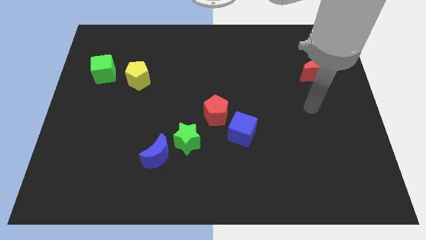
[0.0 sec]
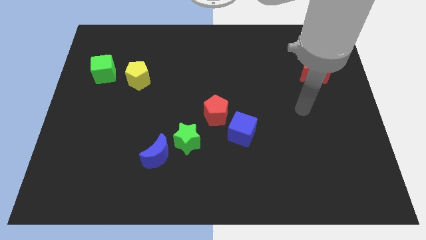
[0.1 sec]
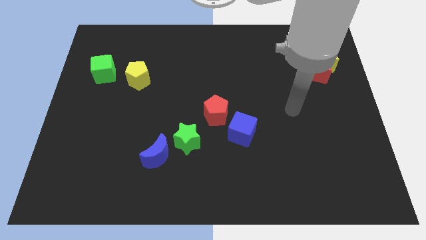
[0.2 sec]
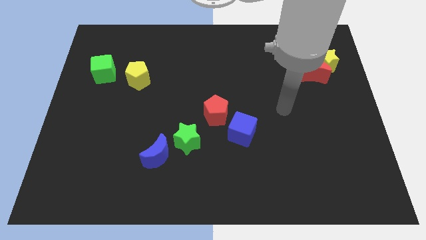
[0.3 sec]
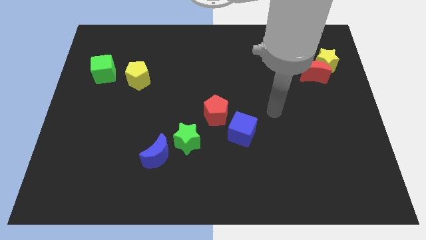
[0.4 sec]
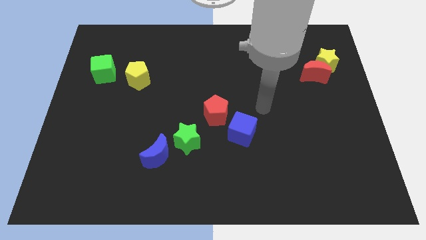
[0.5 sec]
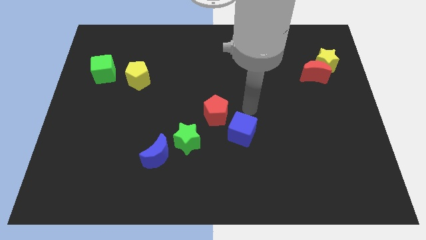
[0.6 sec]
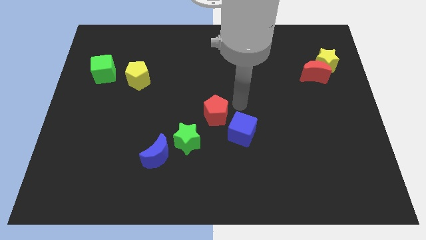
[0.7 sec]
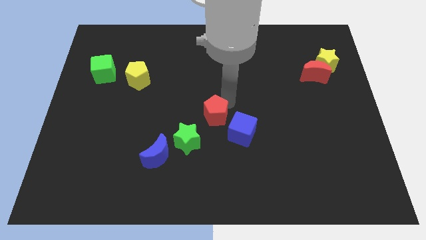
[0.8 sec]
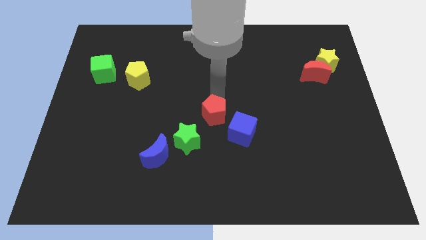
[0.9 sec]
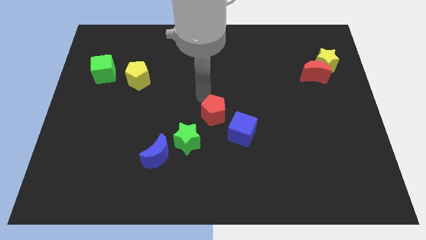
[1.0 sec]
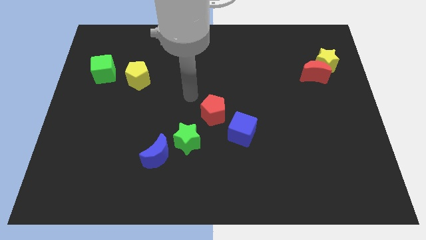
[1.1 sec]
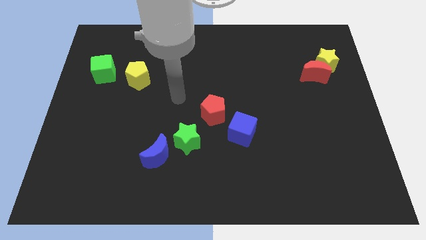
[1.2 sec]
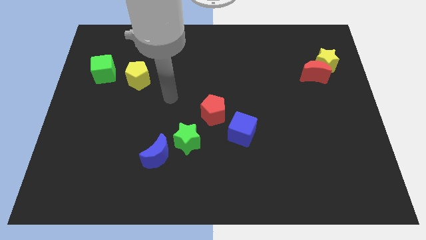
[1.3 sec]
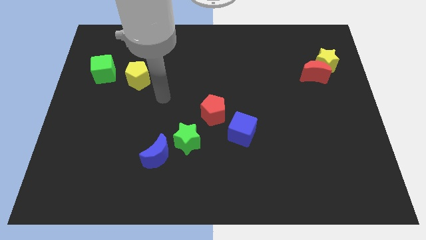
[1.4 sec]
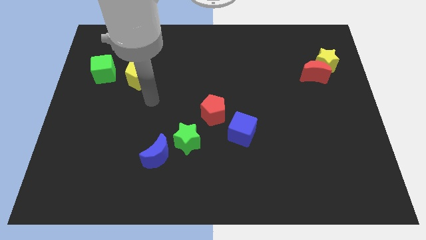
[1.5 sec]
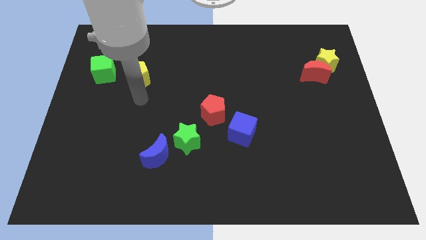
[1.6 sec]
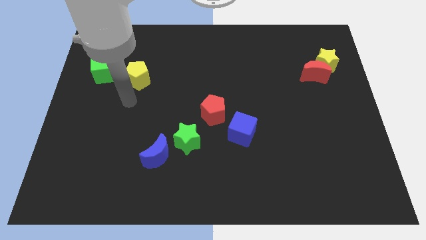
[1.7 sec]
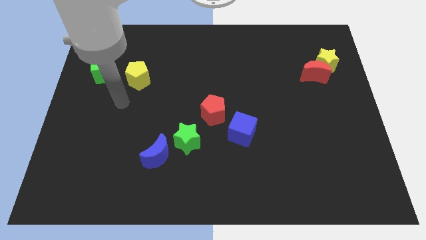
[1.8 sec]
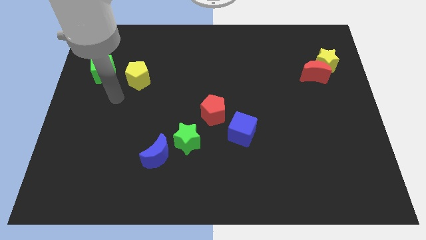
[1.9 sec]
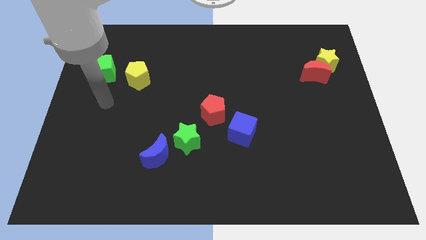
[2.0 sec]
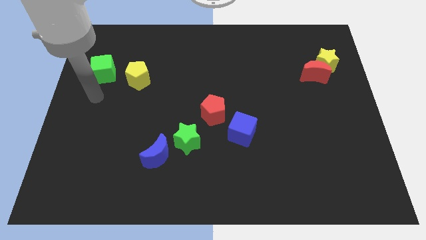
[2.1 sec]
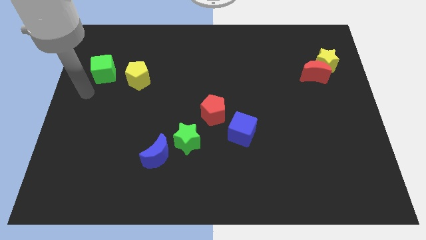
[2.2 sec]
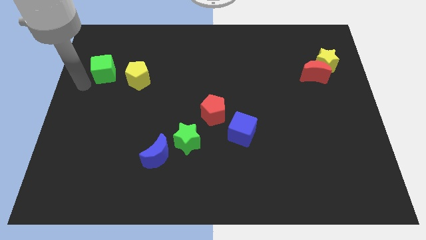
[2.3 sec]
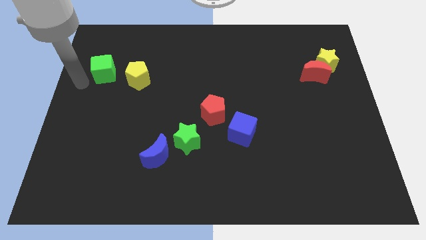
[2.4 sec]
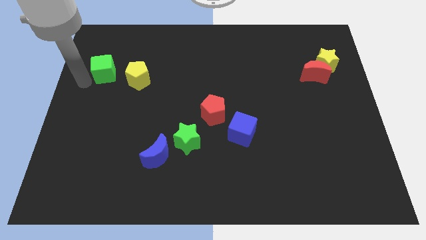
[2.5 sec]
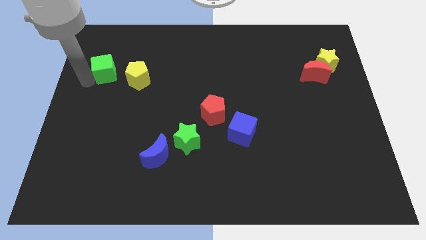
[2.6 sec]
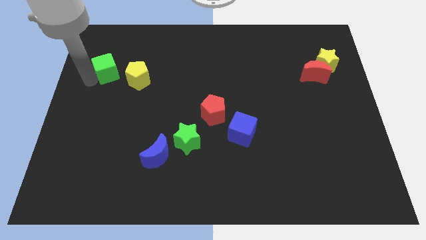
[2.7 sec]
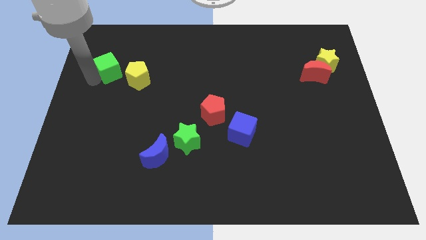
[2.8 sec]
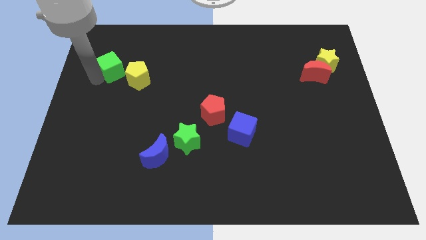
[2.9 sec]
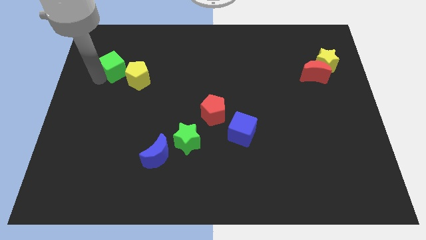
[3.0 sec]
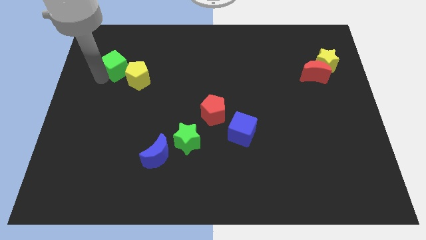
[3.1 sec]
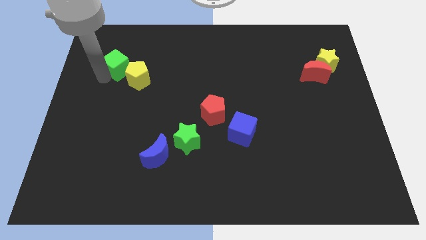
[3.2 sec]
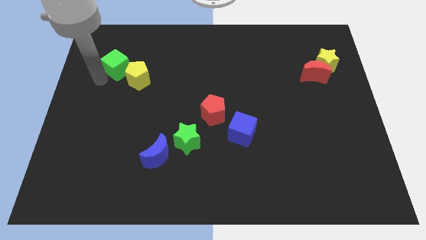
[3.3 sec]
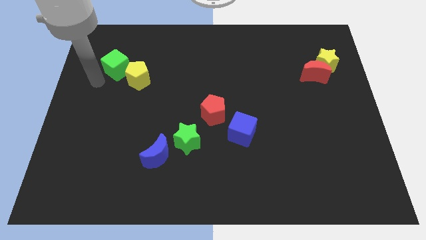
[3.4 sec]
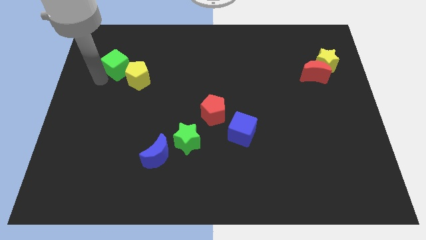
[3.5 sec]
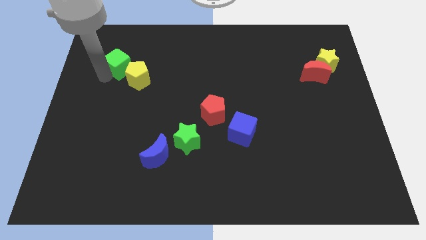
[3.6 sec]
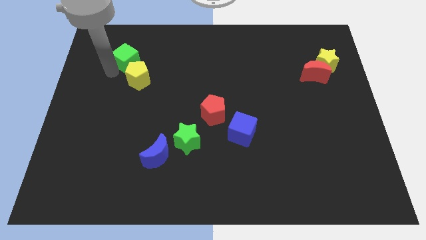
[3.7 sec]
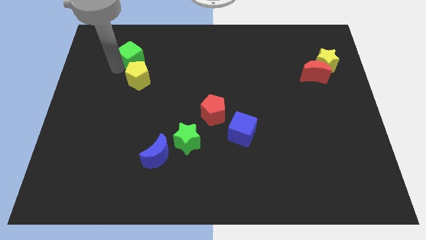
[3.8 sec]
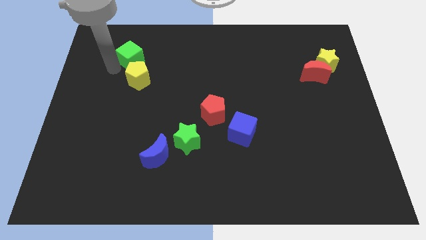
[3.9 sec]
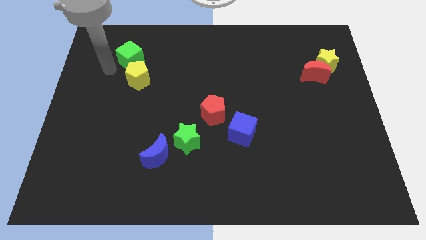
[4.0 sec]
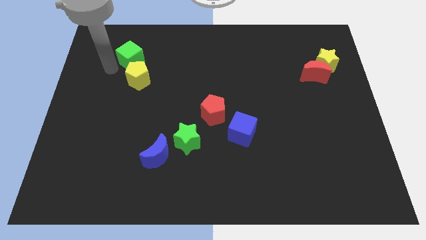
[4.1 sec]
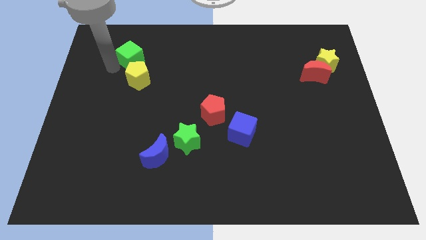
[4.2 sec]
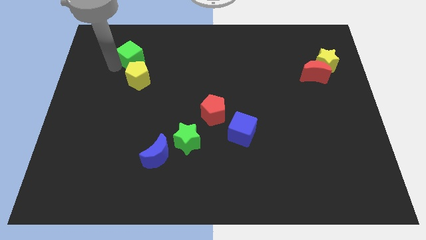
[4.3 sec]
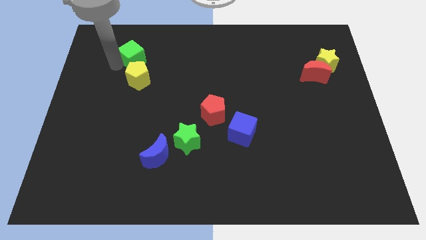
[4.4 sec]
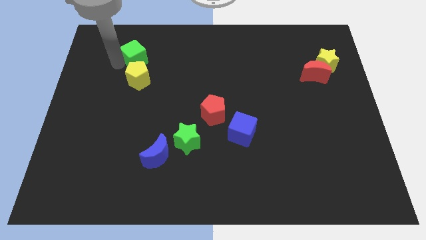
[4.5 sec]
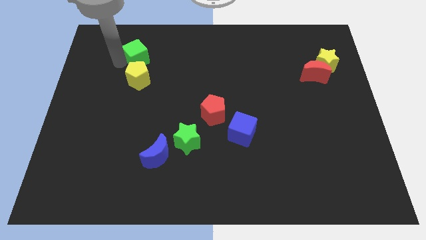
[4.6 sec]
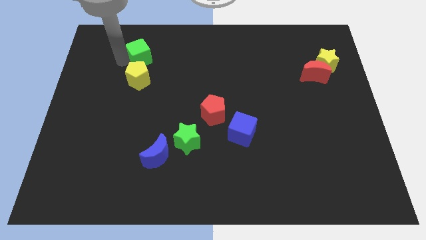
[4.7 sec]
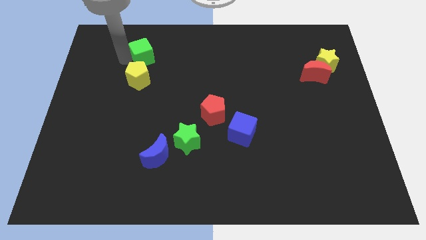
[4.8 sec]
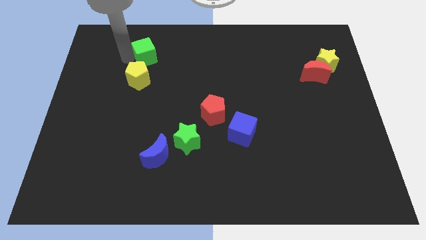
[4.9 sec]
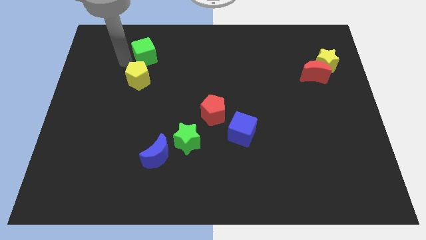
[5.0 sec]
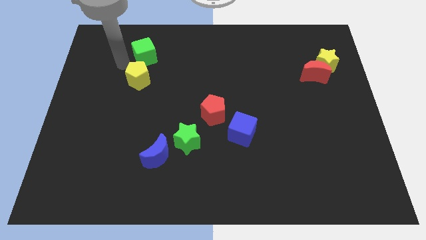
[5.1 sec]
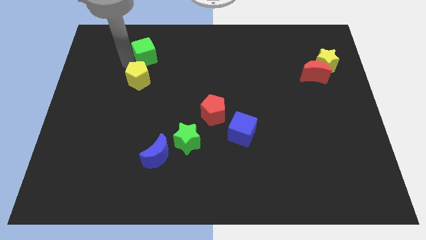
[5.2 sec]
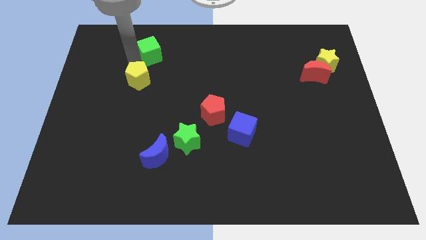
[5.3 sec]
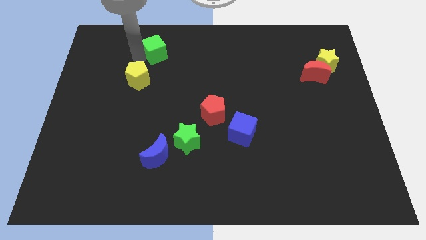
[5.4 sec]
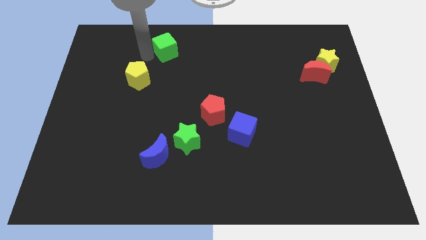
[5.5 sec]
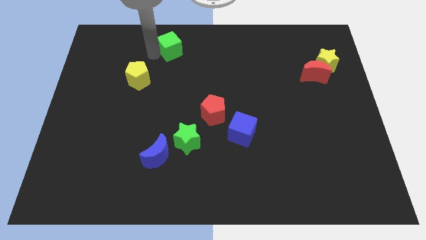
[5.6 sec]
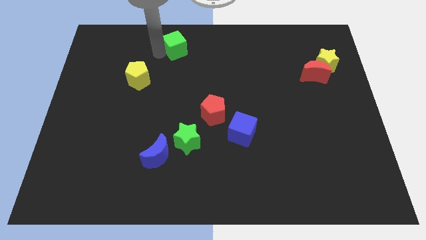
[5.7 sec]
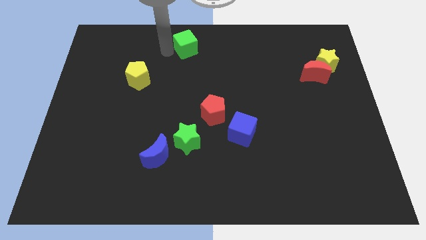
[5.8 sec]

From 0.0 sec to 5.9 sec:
push the green cube to the top side

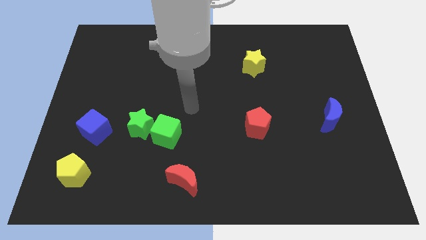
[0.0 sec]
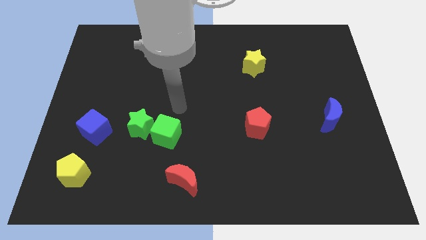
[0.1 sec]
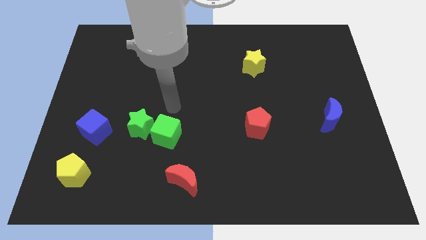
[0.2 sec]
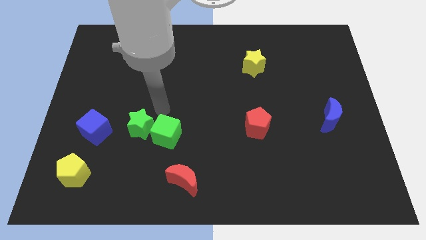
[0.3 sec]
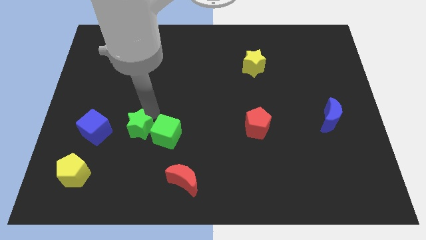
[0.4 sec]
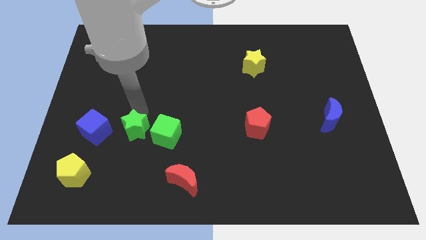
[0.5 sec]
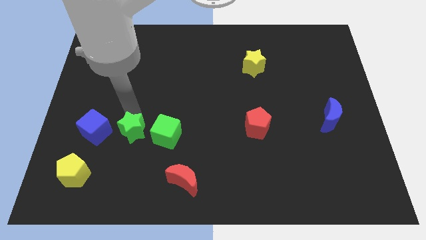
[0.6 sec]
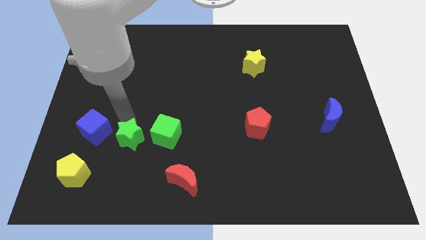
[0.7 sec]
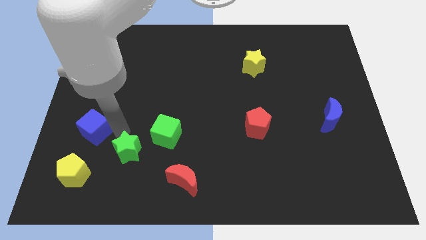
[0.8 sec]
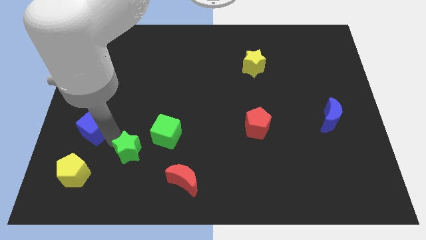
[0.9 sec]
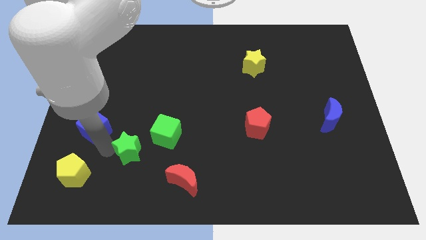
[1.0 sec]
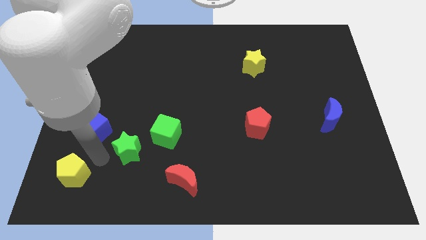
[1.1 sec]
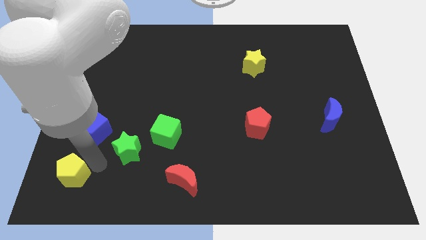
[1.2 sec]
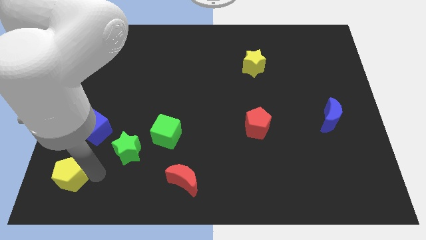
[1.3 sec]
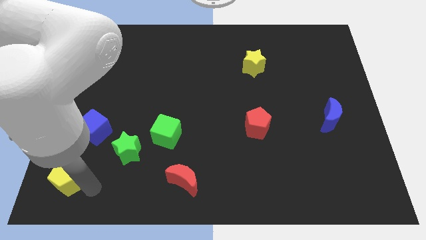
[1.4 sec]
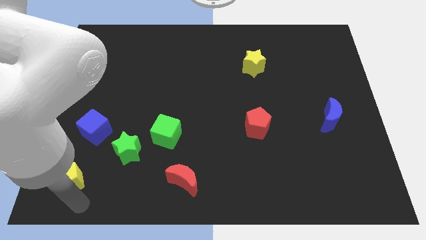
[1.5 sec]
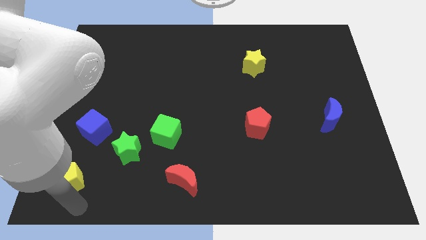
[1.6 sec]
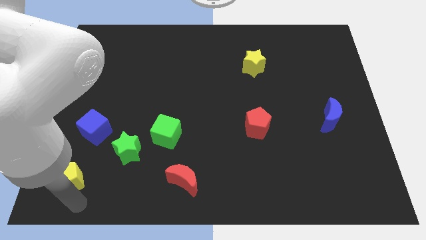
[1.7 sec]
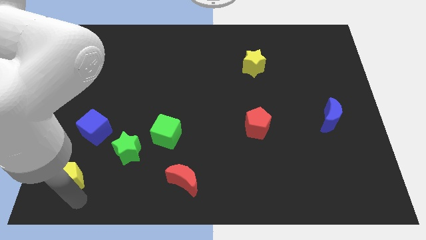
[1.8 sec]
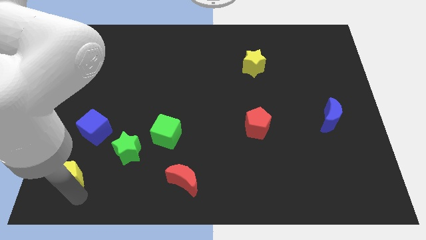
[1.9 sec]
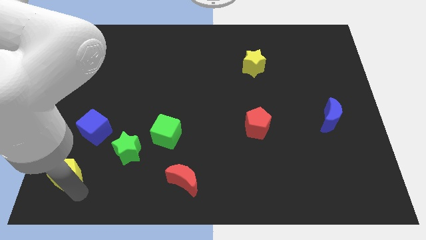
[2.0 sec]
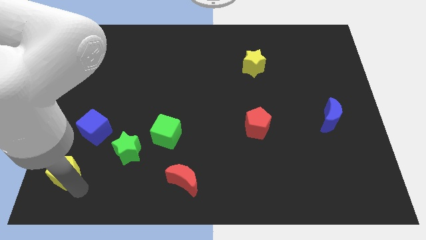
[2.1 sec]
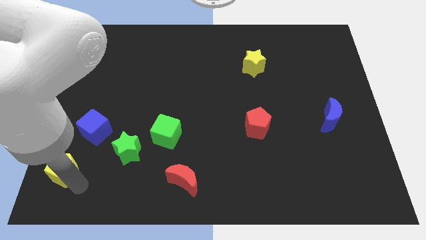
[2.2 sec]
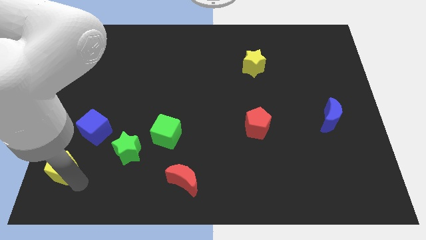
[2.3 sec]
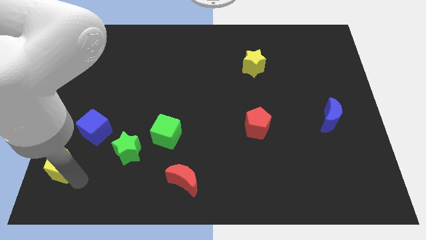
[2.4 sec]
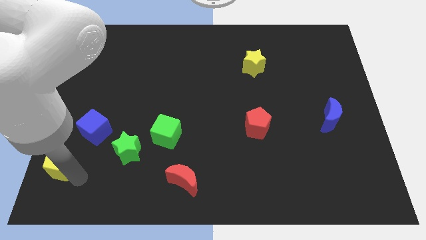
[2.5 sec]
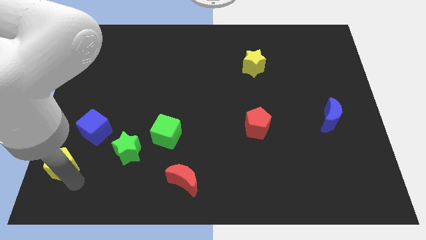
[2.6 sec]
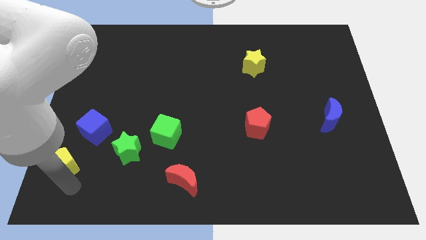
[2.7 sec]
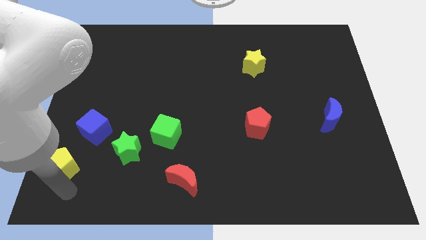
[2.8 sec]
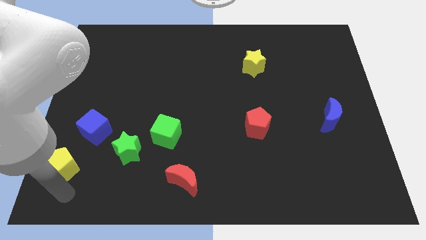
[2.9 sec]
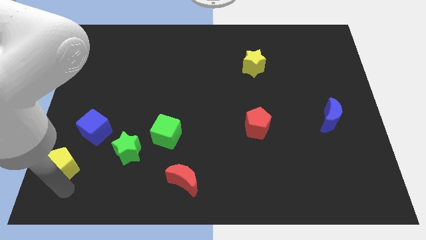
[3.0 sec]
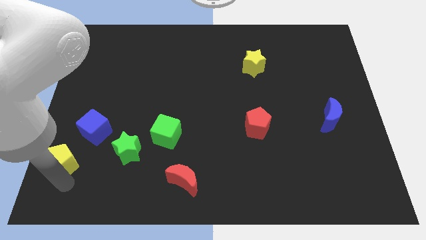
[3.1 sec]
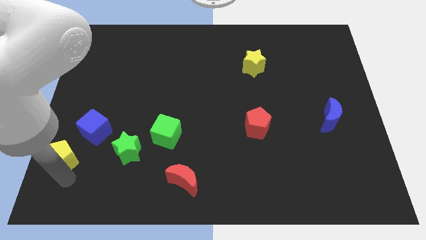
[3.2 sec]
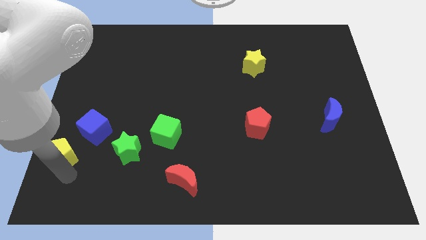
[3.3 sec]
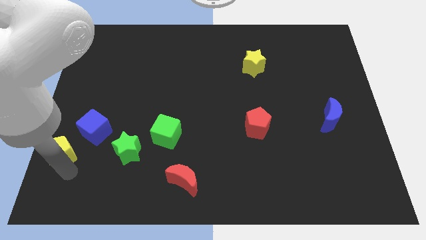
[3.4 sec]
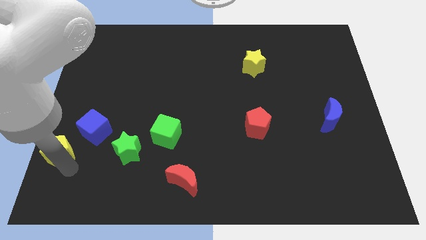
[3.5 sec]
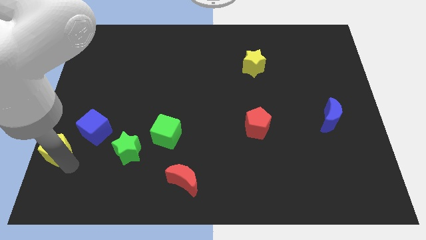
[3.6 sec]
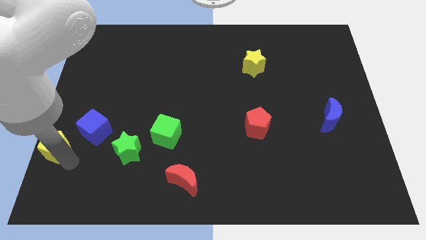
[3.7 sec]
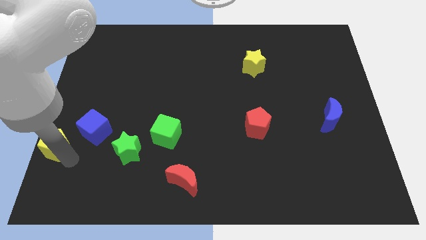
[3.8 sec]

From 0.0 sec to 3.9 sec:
slide the yellow pentagon to the center left
